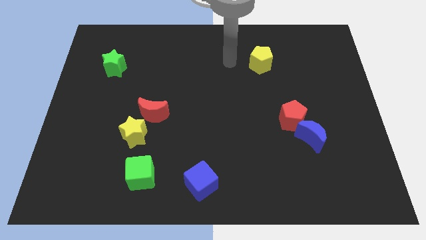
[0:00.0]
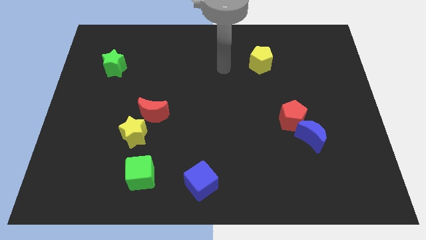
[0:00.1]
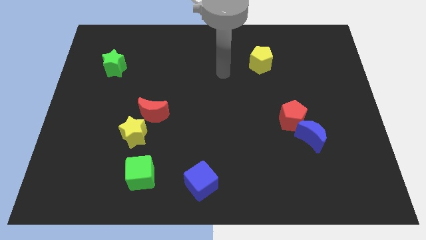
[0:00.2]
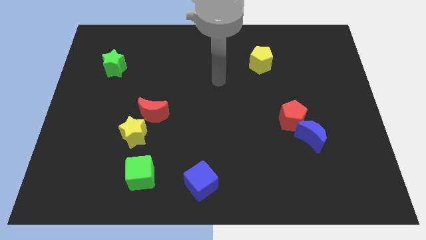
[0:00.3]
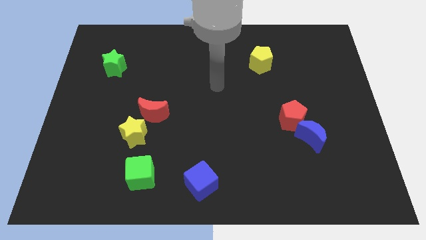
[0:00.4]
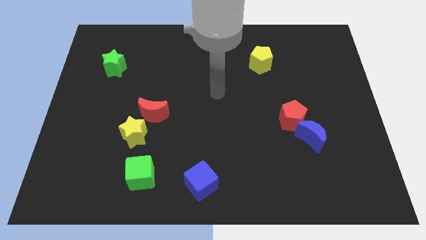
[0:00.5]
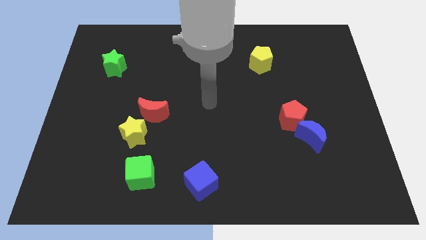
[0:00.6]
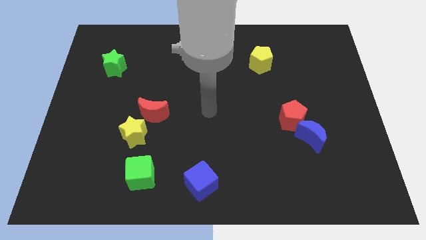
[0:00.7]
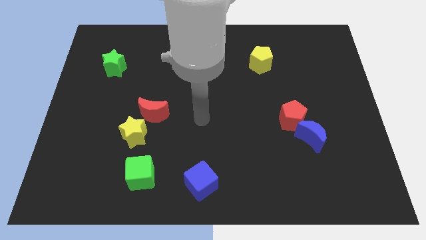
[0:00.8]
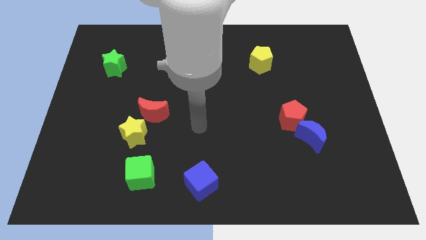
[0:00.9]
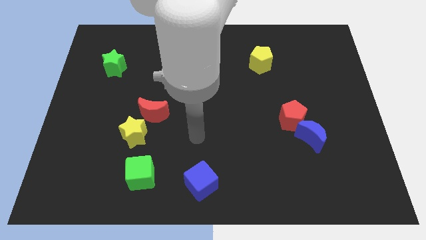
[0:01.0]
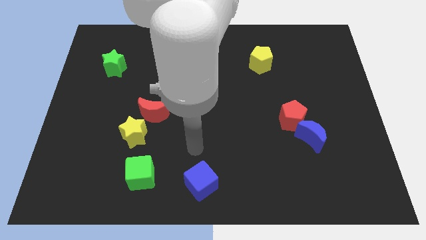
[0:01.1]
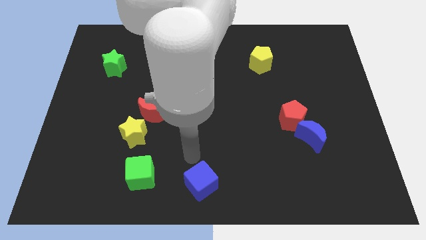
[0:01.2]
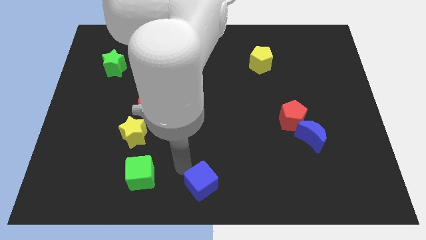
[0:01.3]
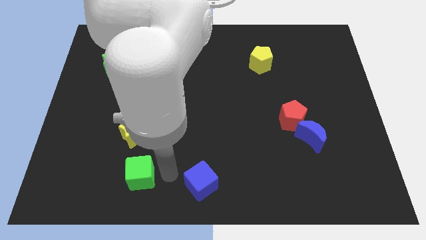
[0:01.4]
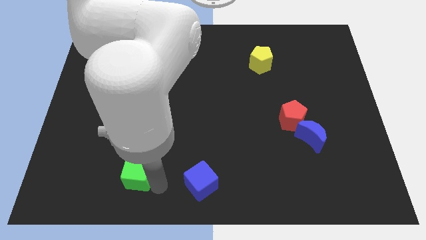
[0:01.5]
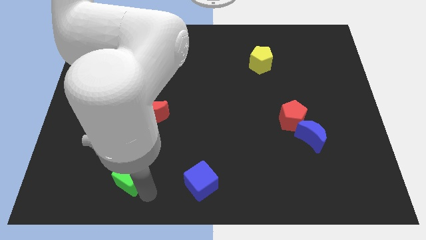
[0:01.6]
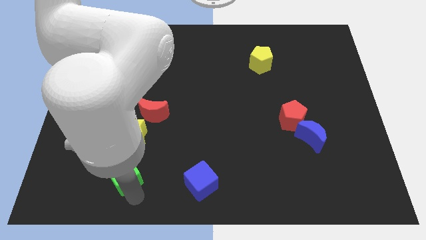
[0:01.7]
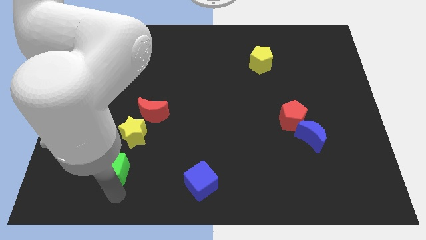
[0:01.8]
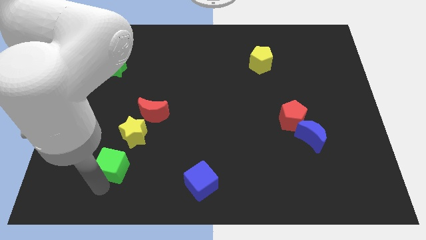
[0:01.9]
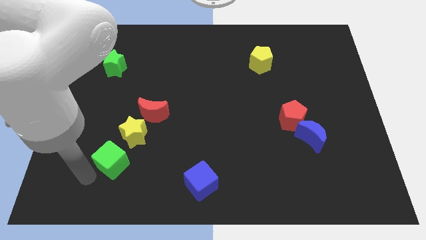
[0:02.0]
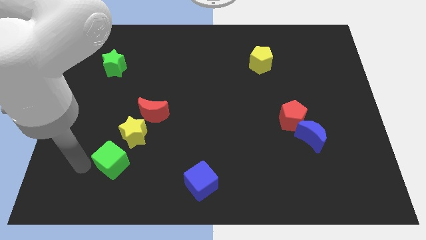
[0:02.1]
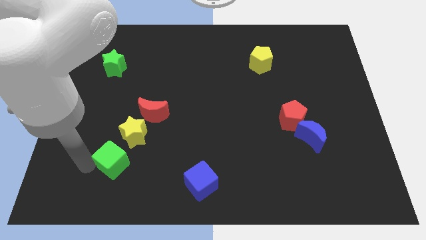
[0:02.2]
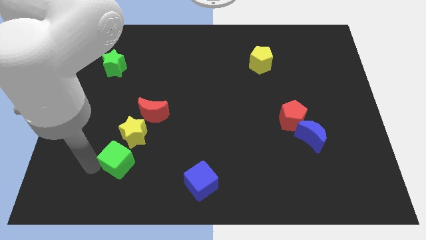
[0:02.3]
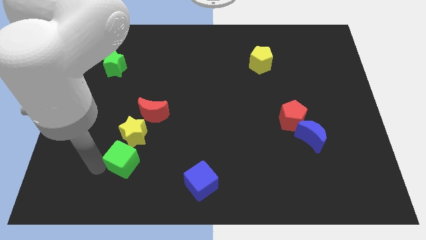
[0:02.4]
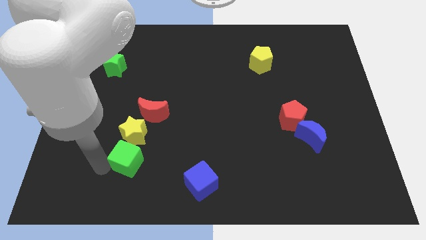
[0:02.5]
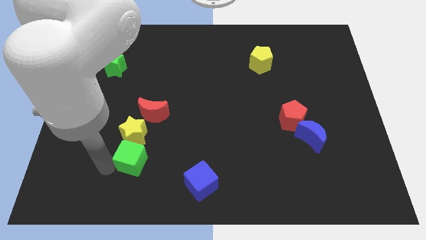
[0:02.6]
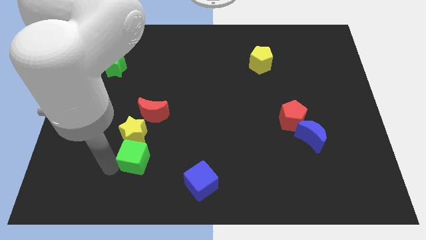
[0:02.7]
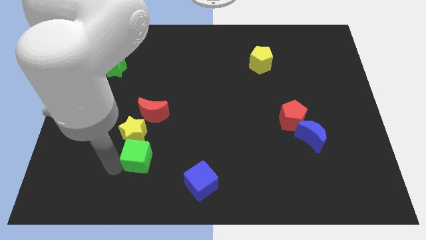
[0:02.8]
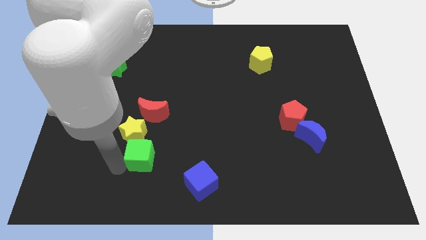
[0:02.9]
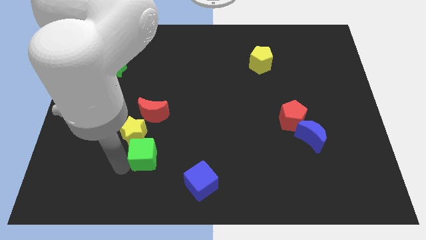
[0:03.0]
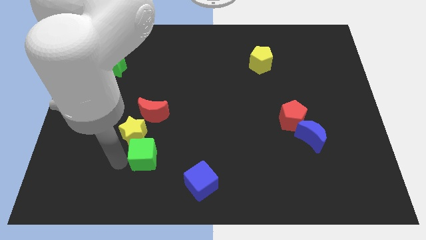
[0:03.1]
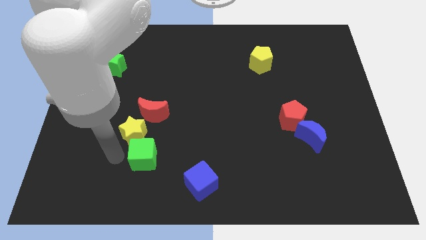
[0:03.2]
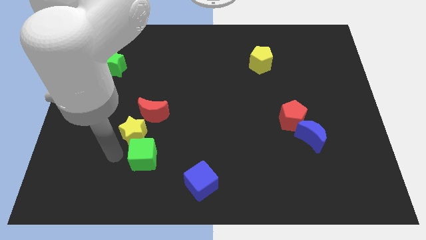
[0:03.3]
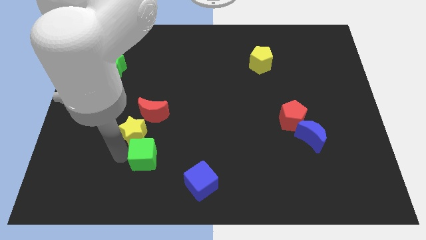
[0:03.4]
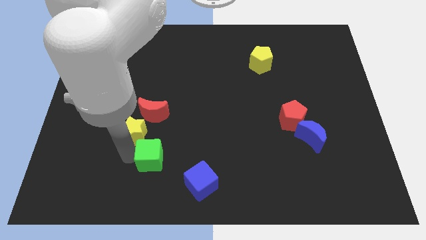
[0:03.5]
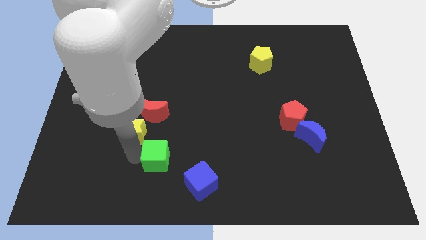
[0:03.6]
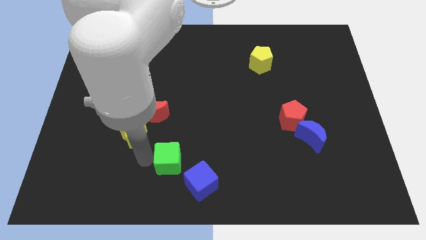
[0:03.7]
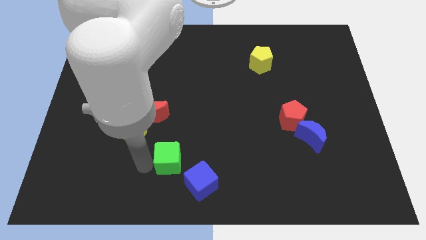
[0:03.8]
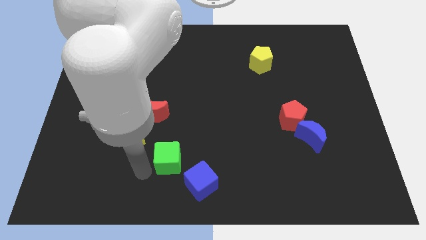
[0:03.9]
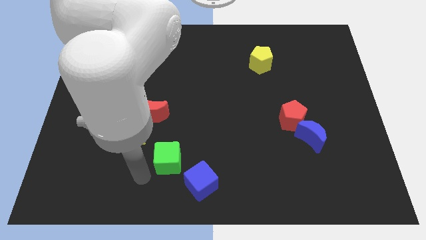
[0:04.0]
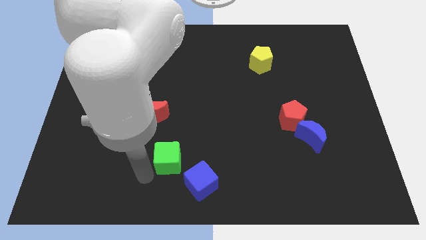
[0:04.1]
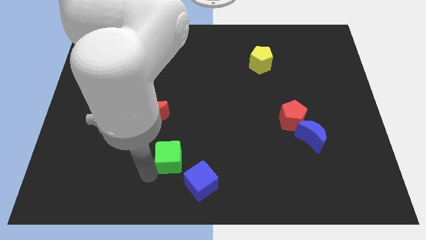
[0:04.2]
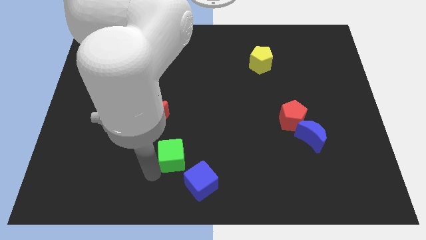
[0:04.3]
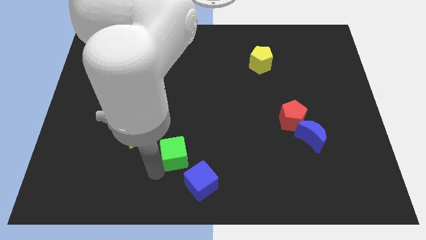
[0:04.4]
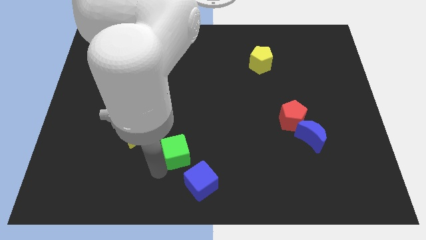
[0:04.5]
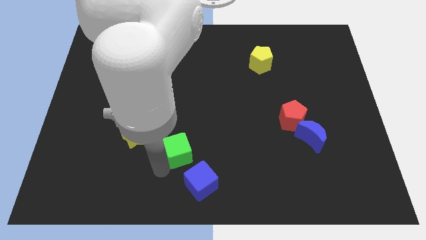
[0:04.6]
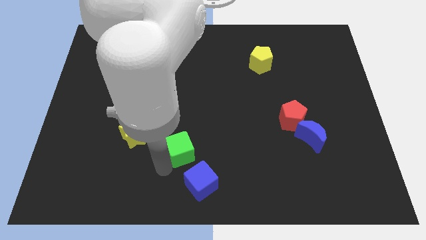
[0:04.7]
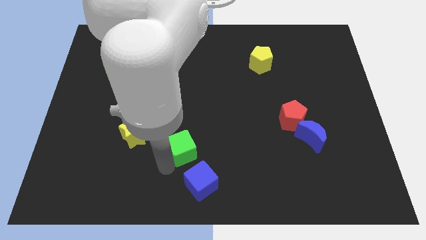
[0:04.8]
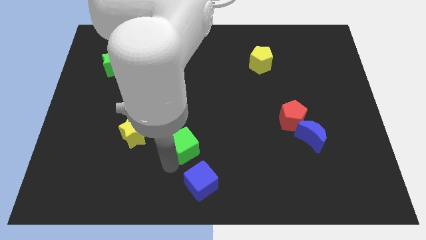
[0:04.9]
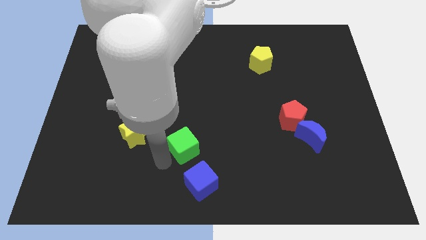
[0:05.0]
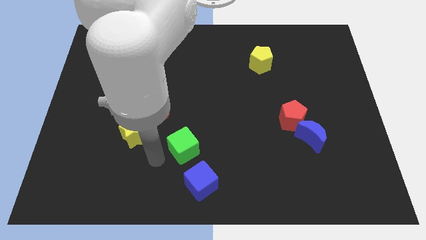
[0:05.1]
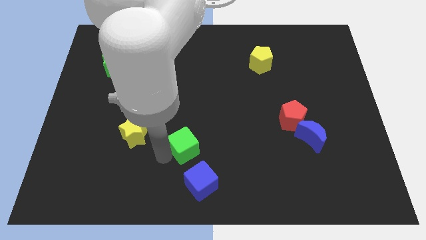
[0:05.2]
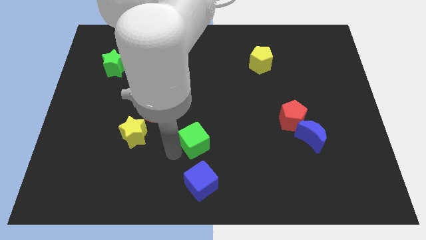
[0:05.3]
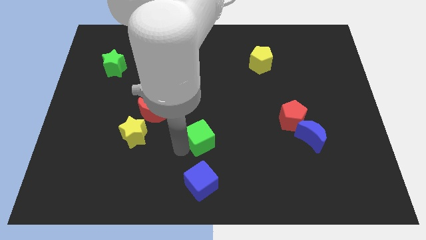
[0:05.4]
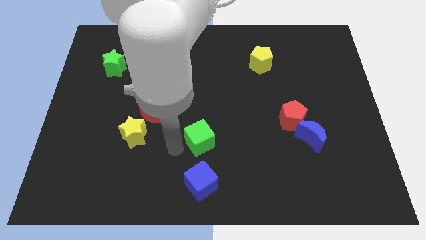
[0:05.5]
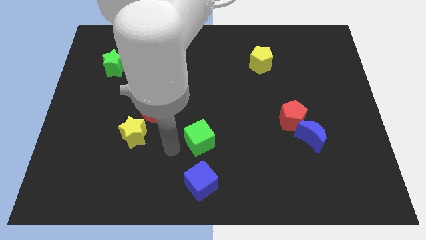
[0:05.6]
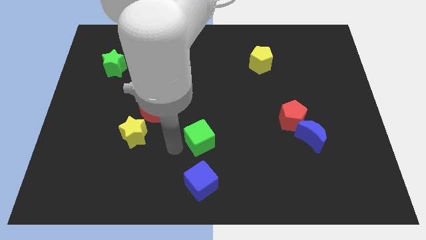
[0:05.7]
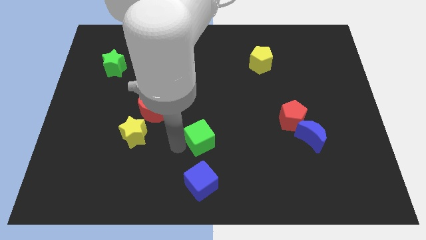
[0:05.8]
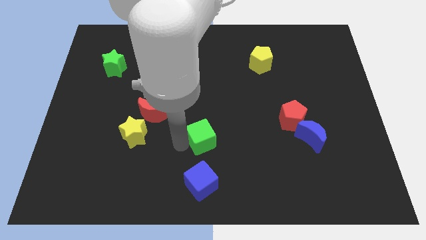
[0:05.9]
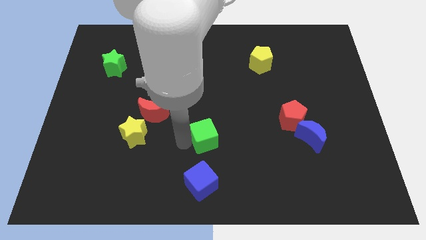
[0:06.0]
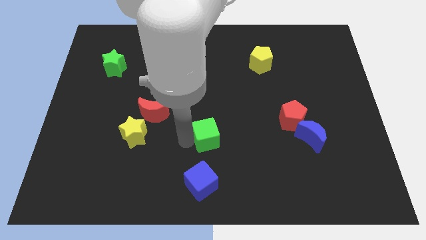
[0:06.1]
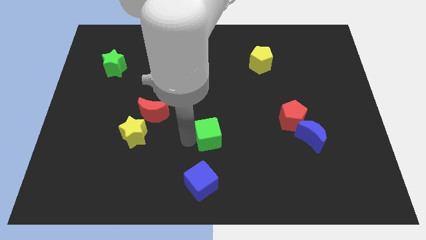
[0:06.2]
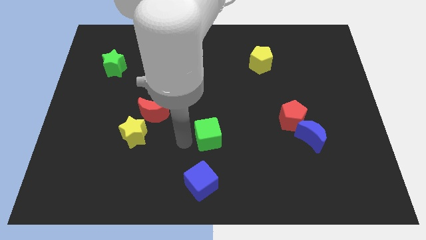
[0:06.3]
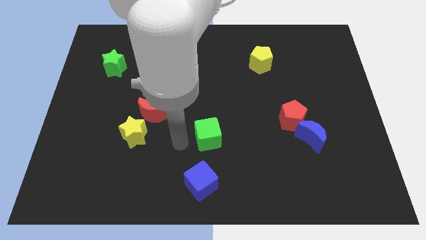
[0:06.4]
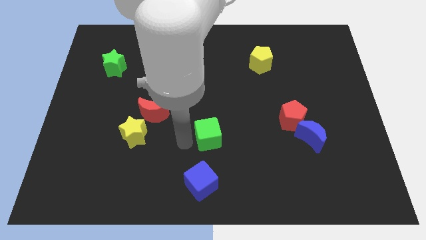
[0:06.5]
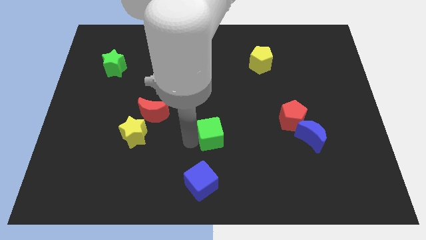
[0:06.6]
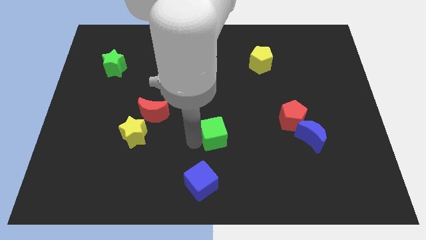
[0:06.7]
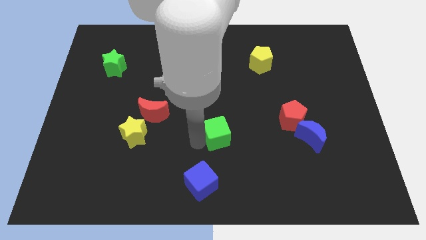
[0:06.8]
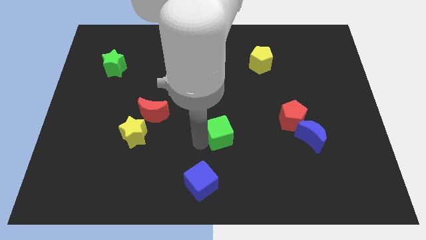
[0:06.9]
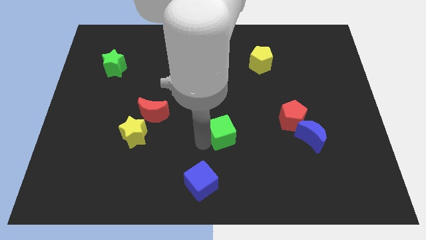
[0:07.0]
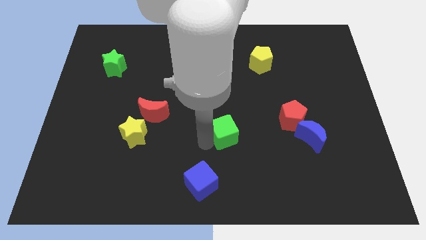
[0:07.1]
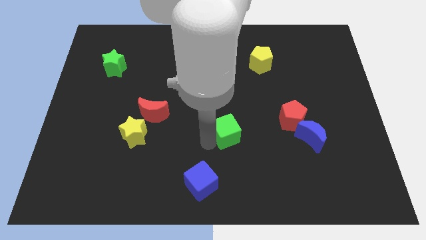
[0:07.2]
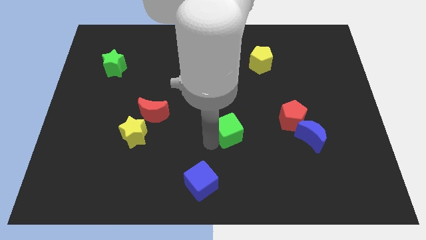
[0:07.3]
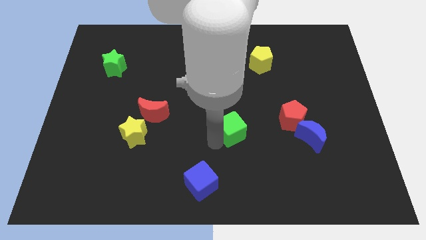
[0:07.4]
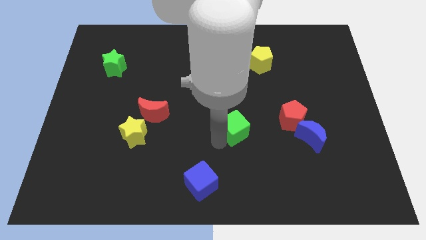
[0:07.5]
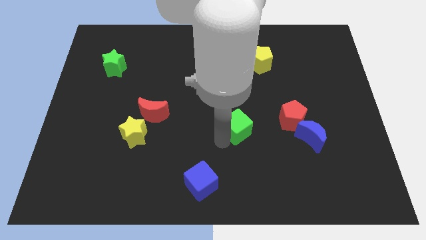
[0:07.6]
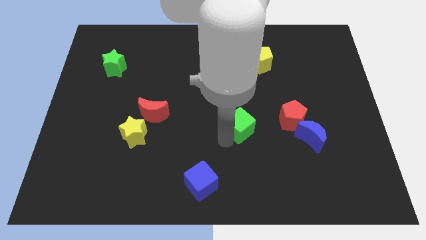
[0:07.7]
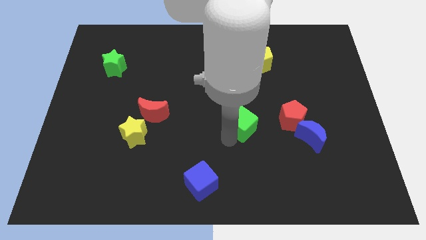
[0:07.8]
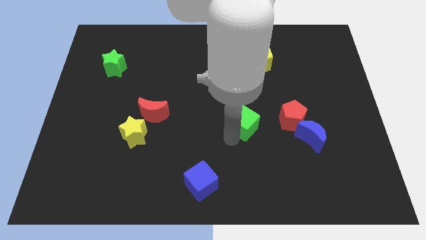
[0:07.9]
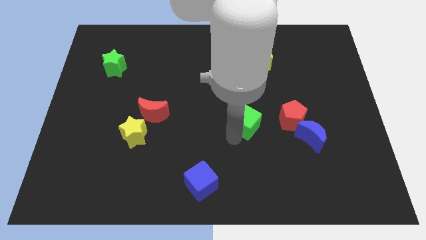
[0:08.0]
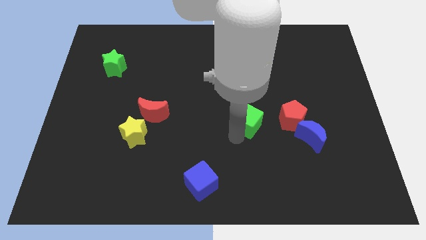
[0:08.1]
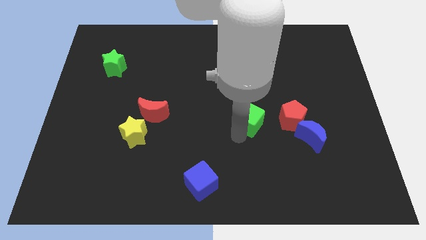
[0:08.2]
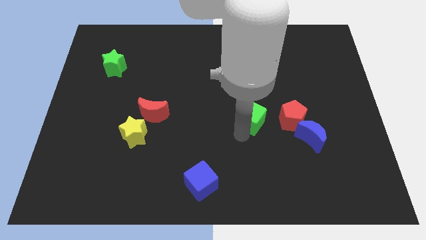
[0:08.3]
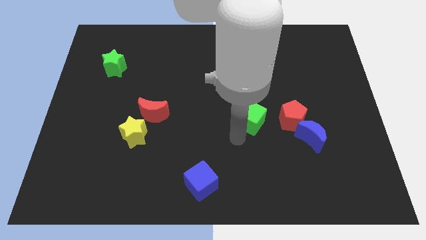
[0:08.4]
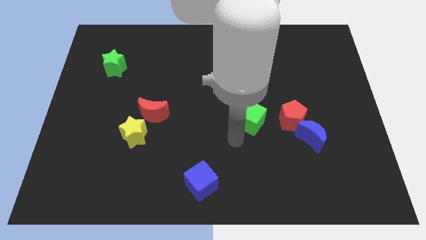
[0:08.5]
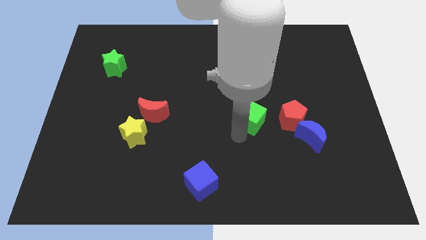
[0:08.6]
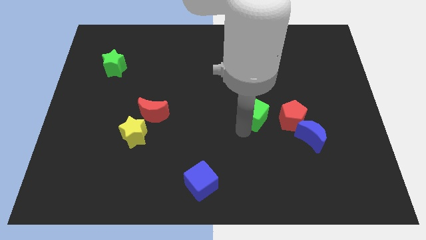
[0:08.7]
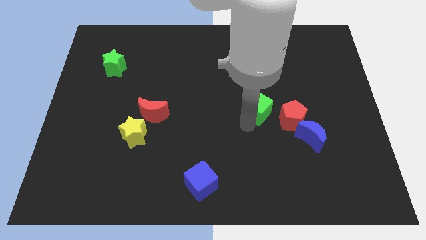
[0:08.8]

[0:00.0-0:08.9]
slide the green cube to the top left of the red pentagon
